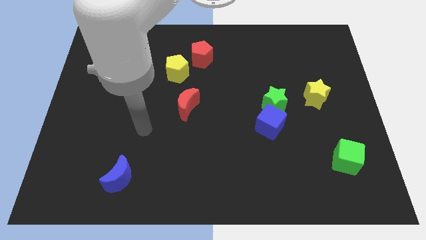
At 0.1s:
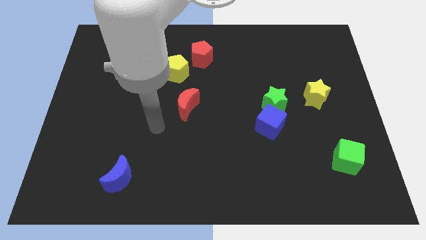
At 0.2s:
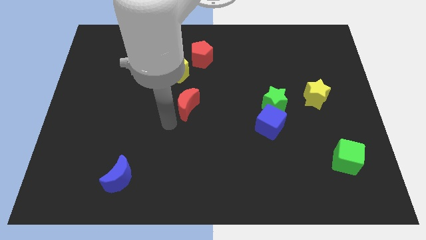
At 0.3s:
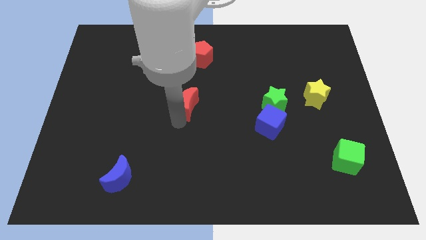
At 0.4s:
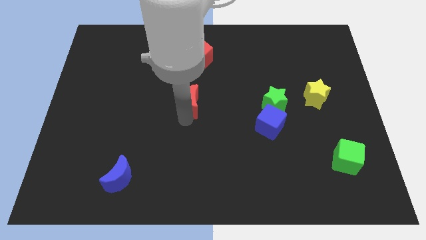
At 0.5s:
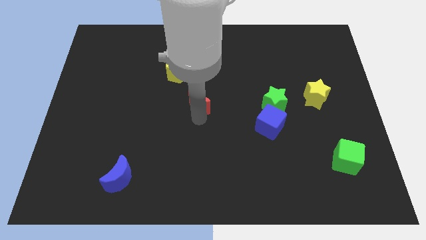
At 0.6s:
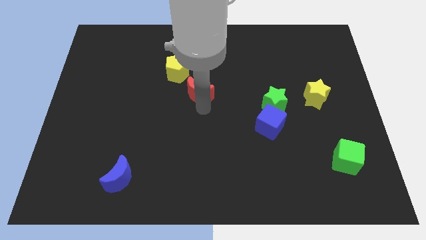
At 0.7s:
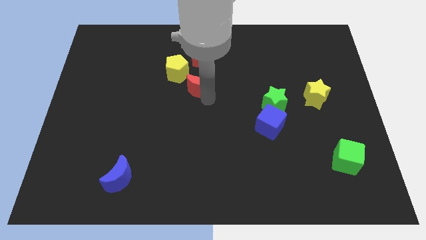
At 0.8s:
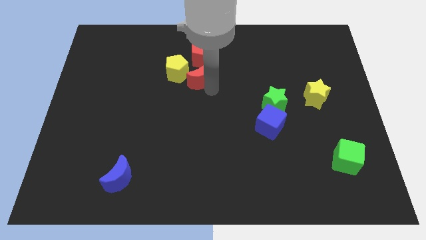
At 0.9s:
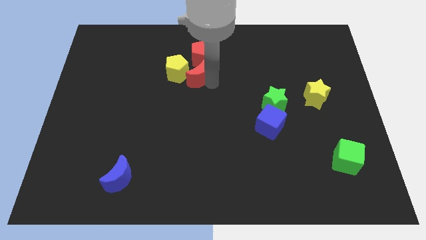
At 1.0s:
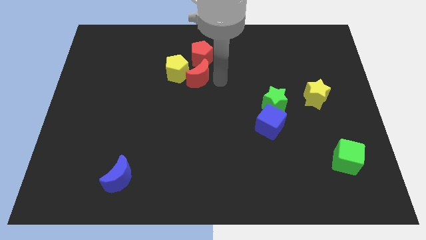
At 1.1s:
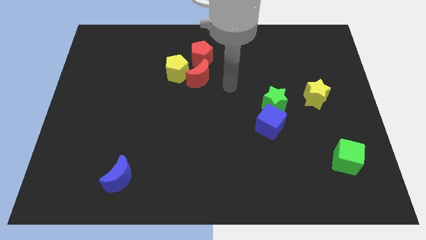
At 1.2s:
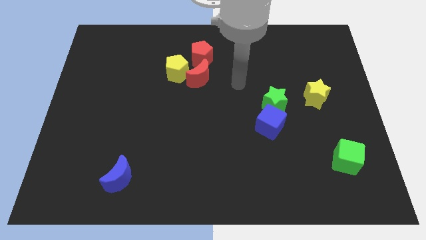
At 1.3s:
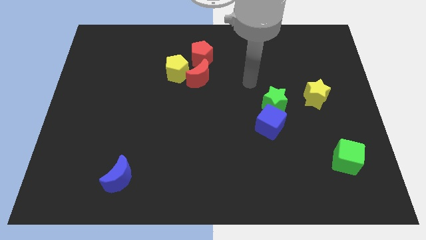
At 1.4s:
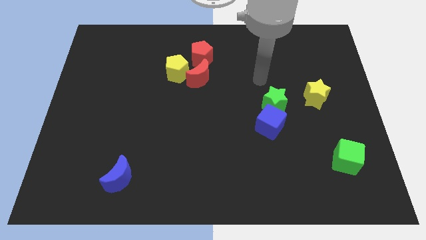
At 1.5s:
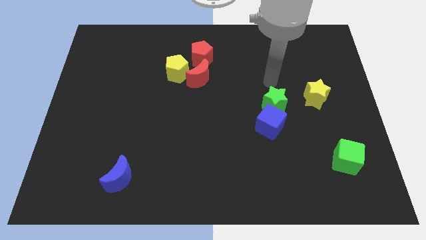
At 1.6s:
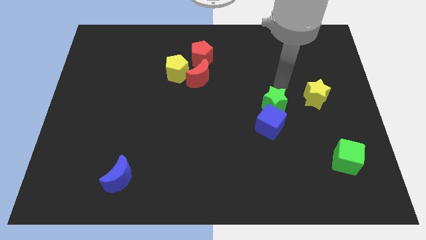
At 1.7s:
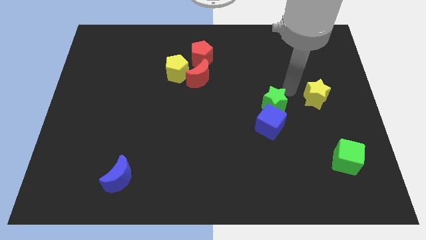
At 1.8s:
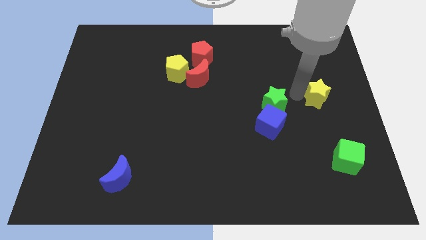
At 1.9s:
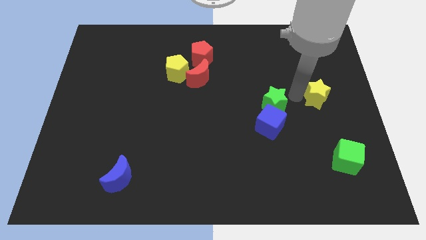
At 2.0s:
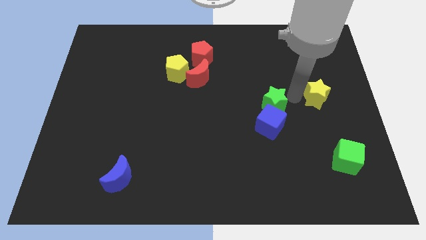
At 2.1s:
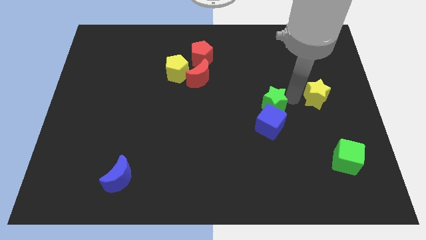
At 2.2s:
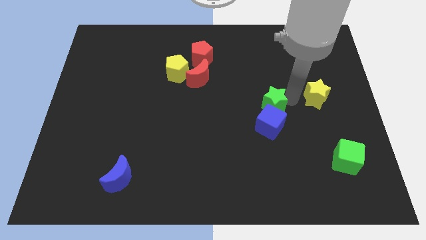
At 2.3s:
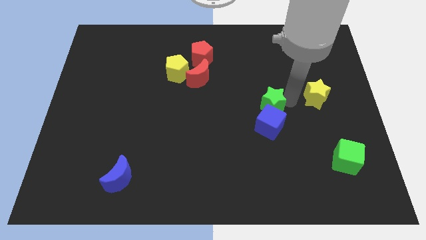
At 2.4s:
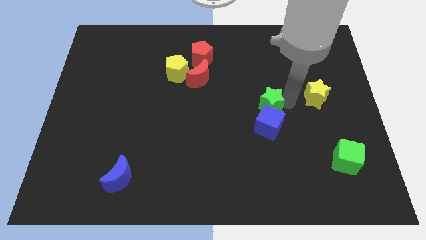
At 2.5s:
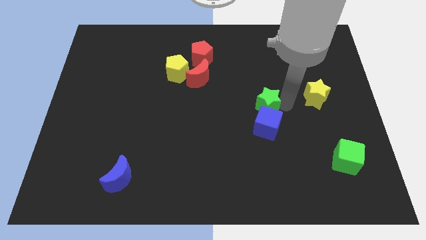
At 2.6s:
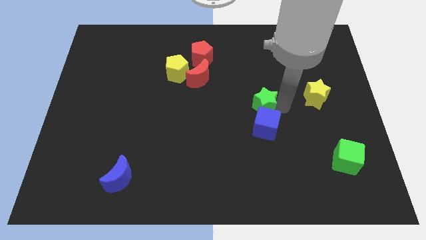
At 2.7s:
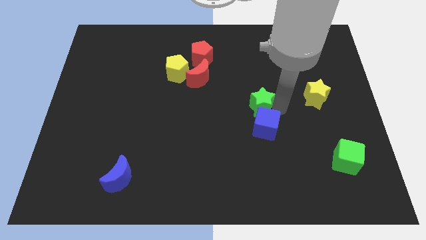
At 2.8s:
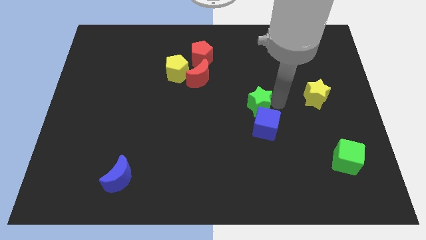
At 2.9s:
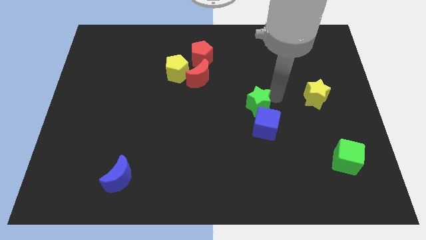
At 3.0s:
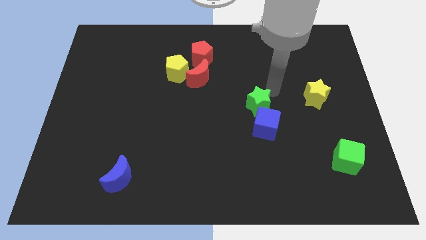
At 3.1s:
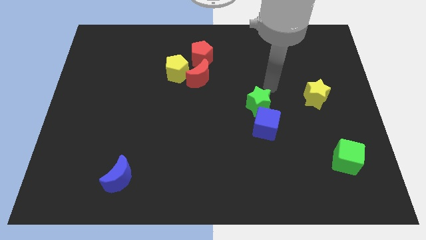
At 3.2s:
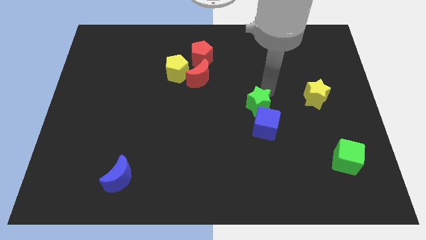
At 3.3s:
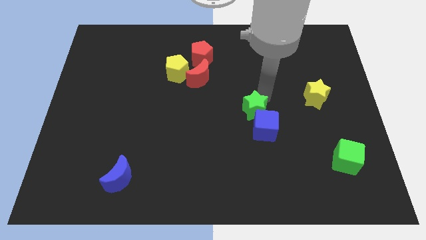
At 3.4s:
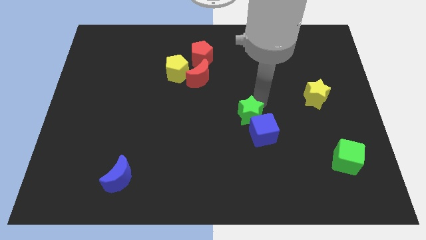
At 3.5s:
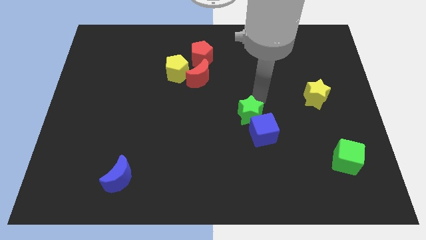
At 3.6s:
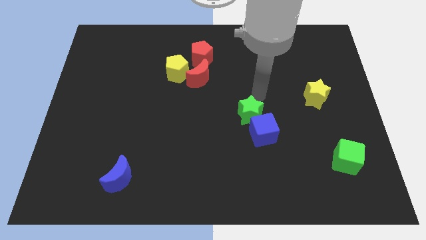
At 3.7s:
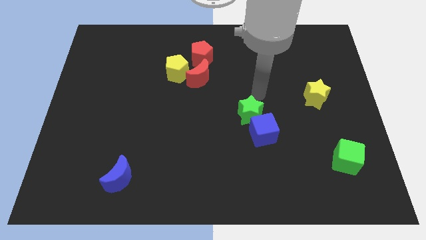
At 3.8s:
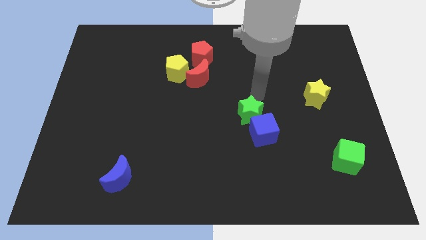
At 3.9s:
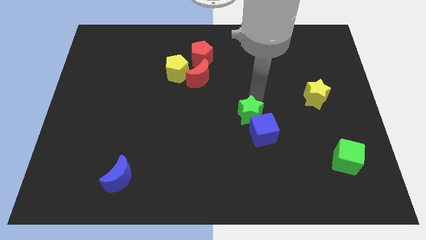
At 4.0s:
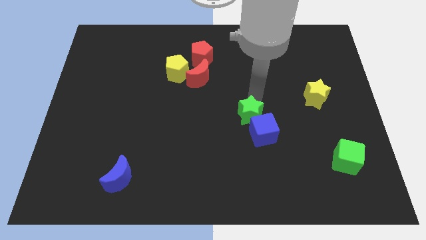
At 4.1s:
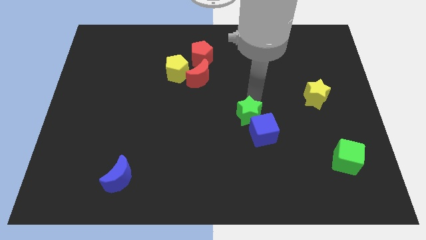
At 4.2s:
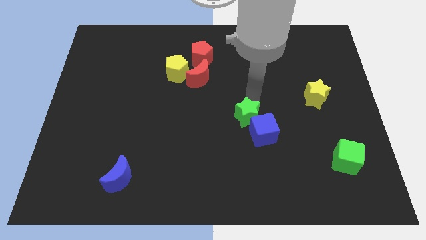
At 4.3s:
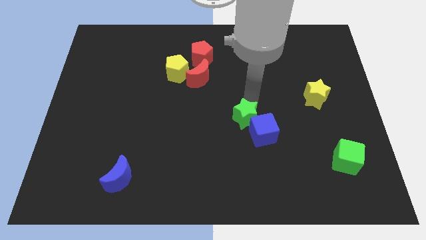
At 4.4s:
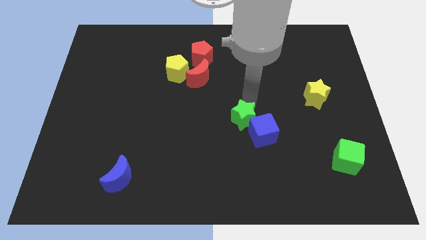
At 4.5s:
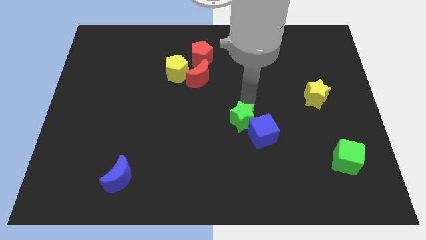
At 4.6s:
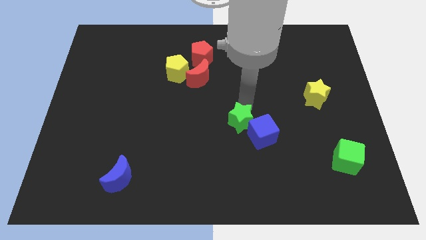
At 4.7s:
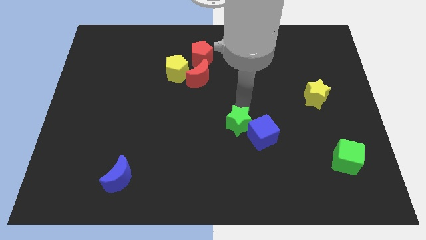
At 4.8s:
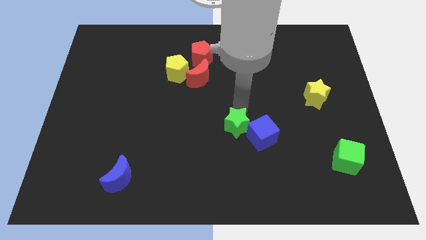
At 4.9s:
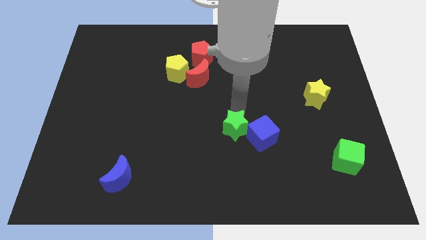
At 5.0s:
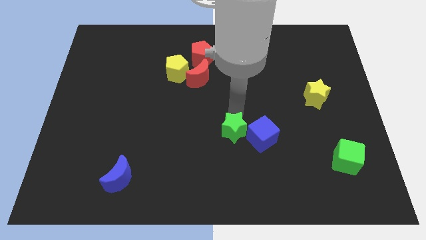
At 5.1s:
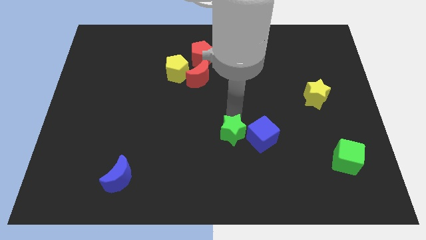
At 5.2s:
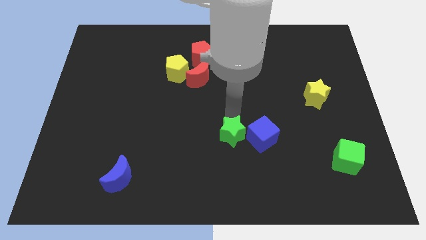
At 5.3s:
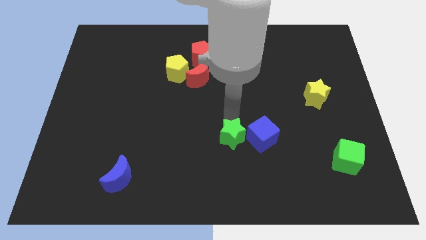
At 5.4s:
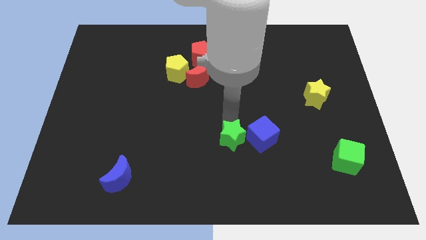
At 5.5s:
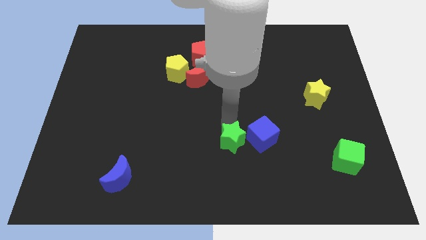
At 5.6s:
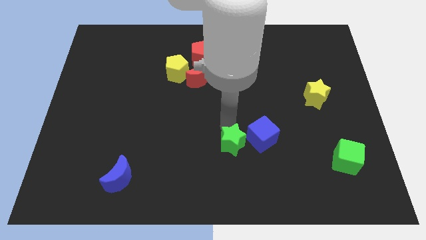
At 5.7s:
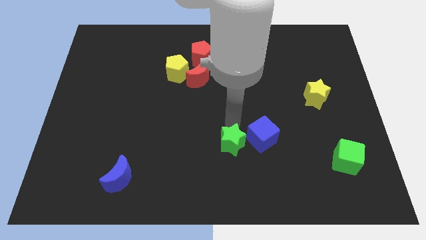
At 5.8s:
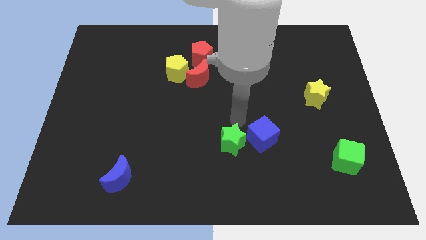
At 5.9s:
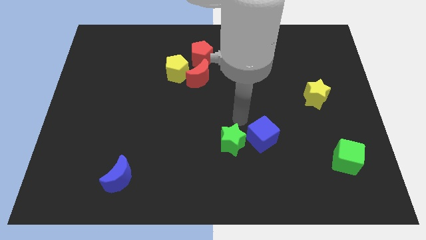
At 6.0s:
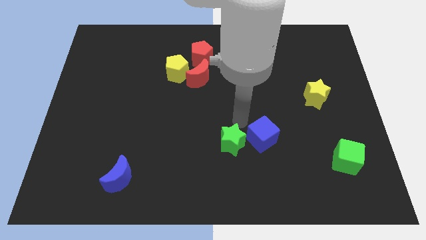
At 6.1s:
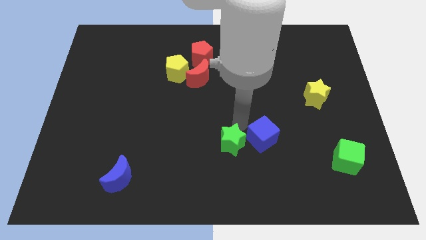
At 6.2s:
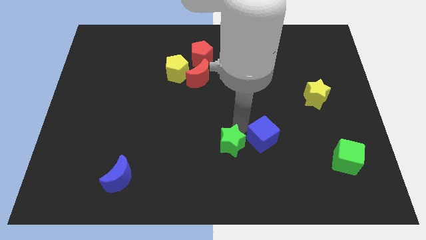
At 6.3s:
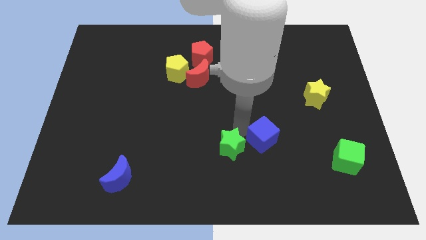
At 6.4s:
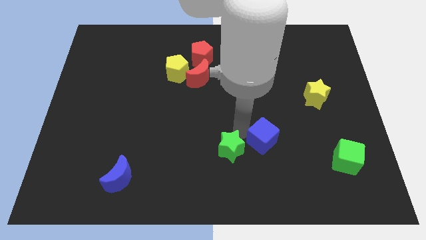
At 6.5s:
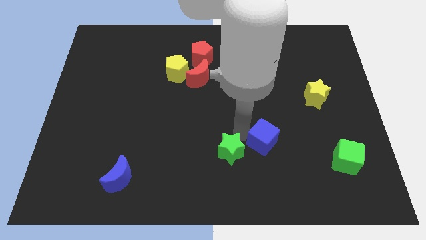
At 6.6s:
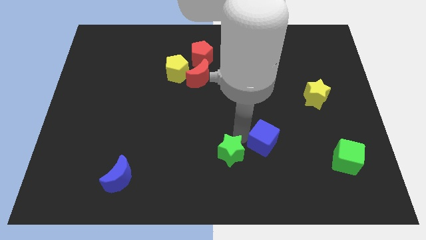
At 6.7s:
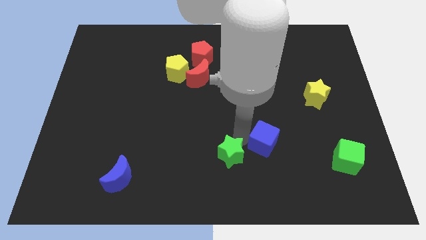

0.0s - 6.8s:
slide the green star to the bottom side

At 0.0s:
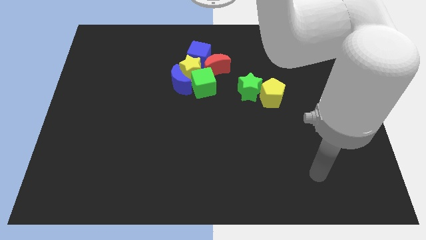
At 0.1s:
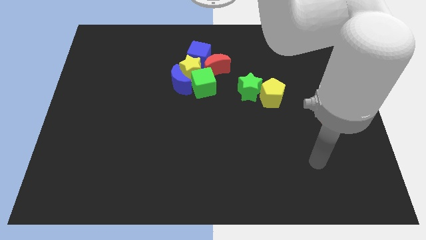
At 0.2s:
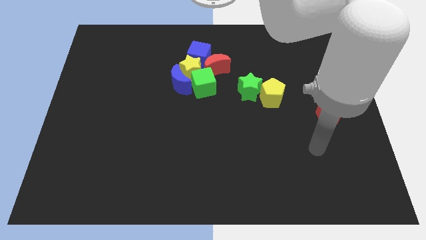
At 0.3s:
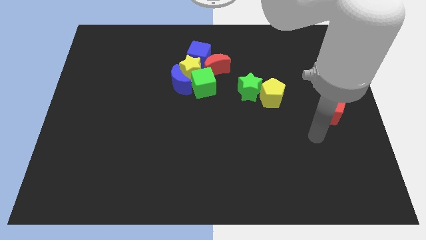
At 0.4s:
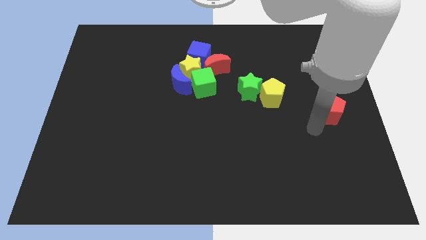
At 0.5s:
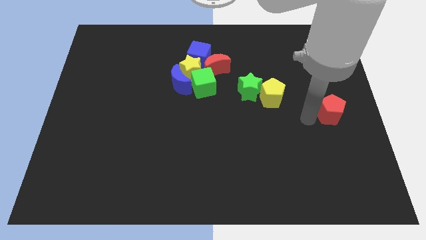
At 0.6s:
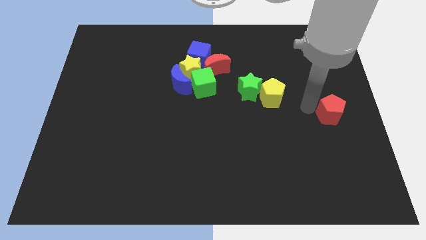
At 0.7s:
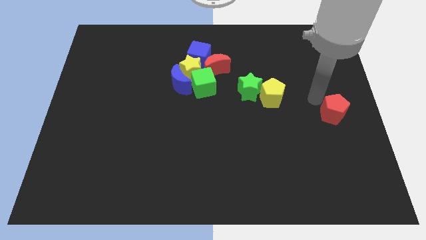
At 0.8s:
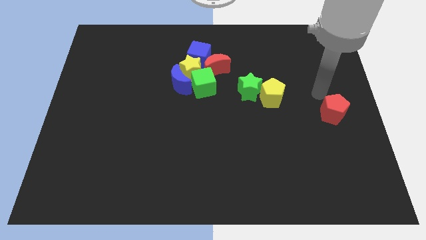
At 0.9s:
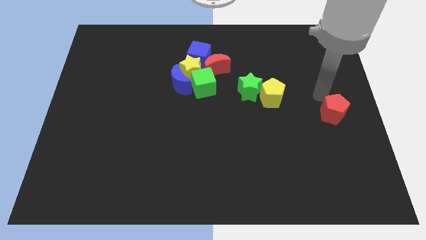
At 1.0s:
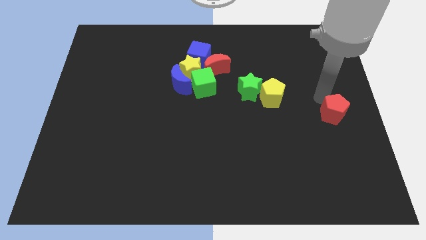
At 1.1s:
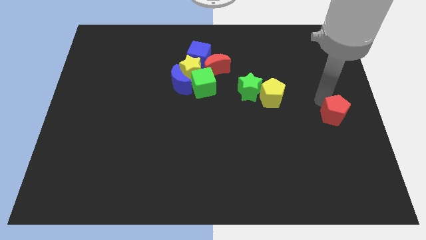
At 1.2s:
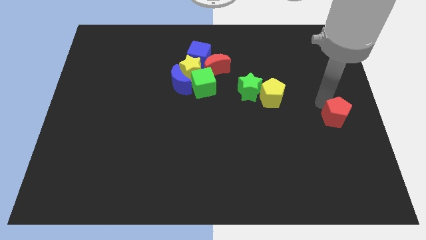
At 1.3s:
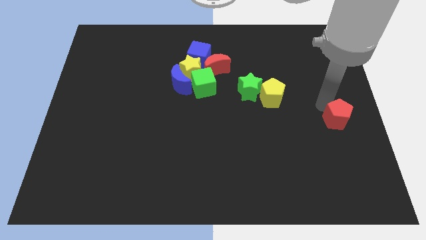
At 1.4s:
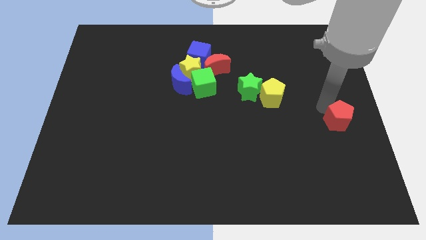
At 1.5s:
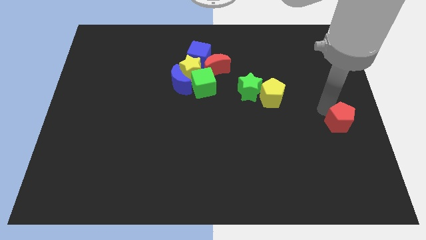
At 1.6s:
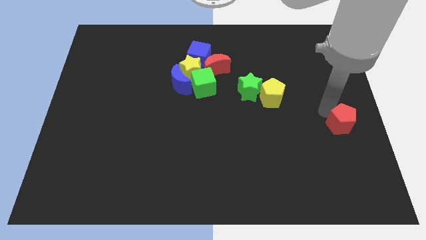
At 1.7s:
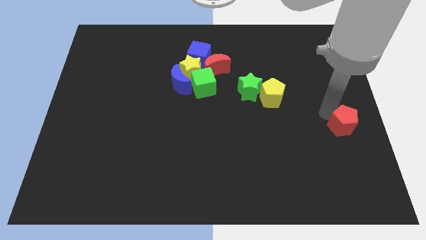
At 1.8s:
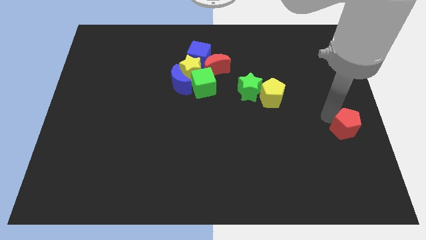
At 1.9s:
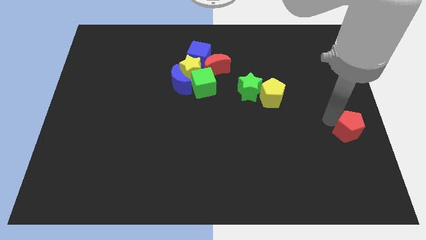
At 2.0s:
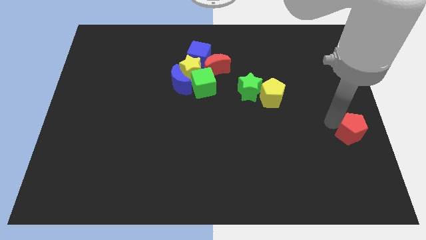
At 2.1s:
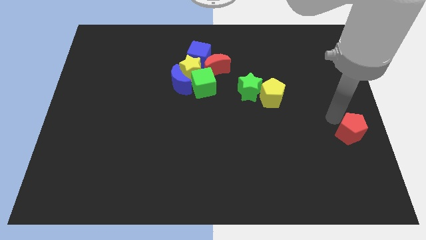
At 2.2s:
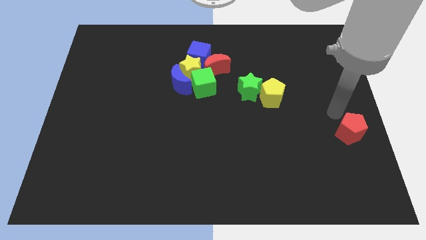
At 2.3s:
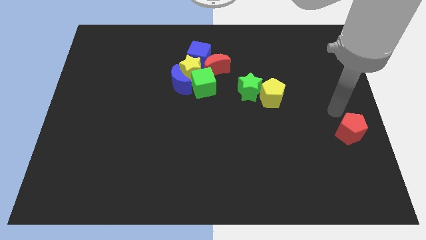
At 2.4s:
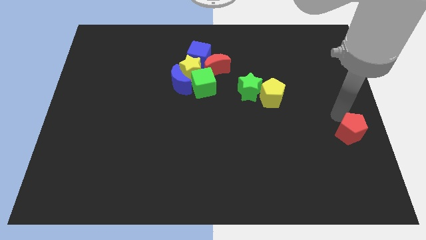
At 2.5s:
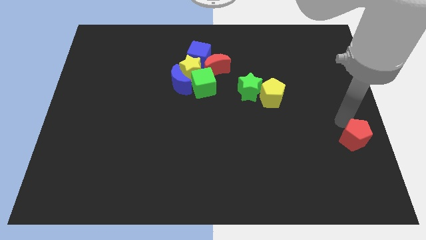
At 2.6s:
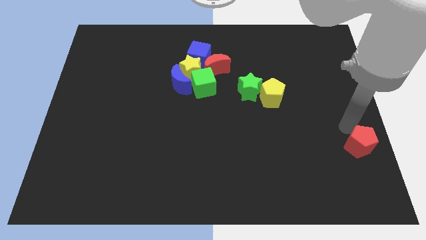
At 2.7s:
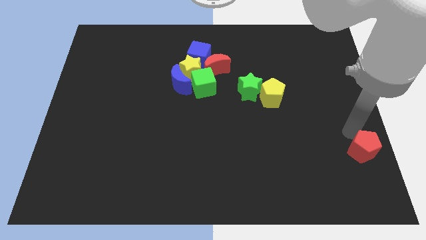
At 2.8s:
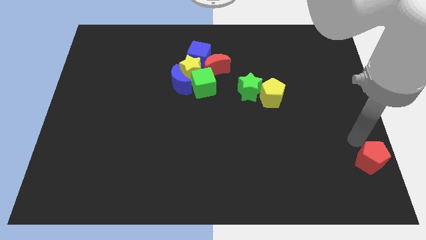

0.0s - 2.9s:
push the red pentagon to the bottom right corner
